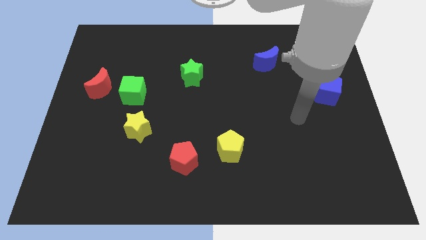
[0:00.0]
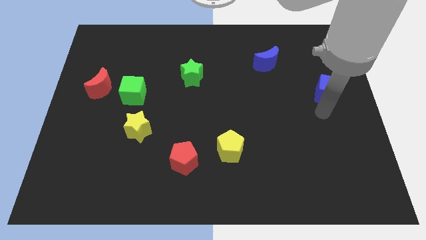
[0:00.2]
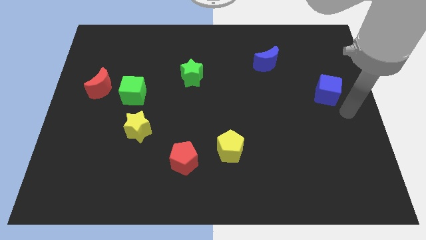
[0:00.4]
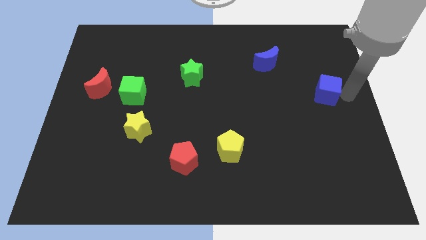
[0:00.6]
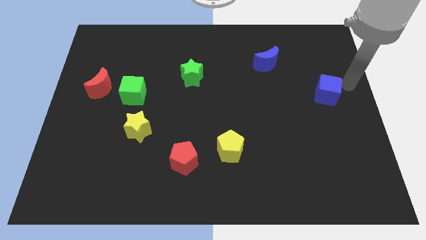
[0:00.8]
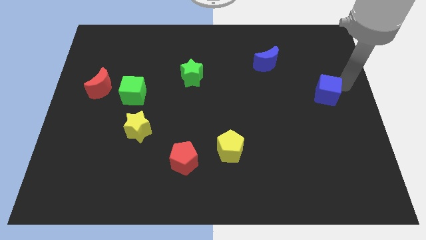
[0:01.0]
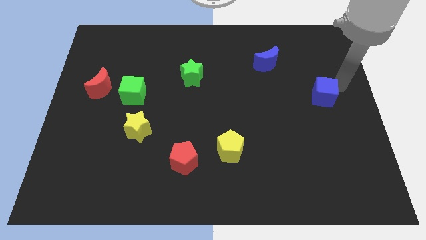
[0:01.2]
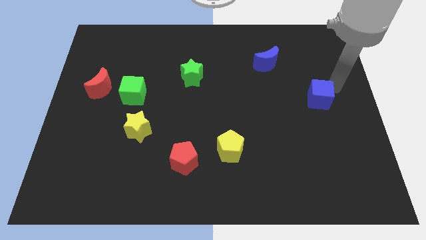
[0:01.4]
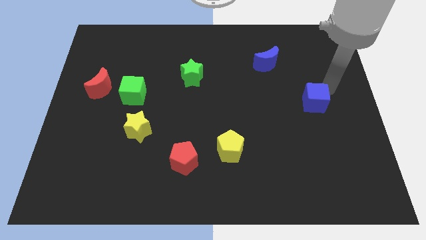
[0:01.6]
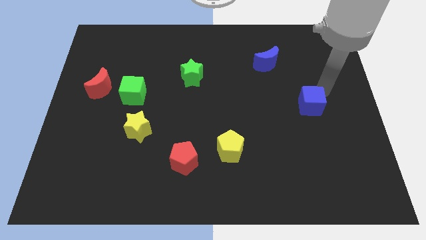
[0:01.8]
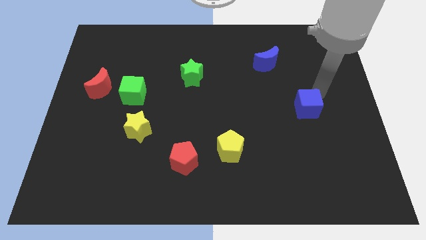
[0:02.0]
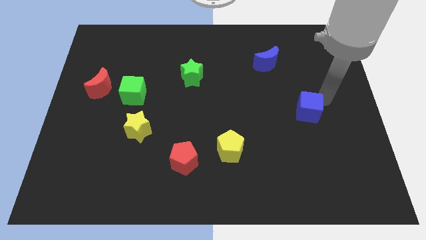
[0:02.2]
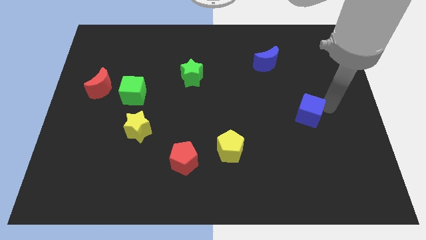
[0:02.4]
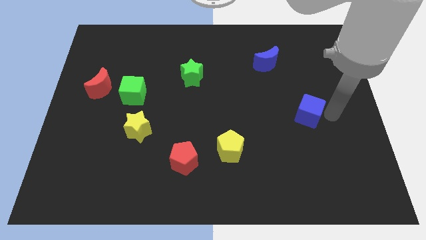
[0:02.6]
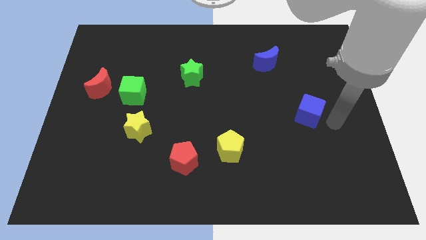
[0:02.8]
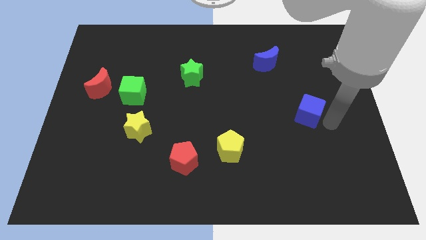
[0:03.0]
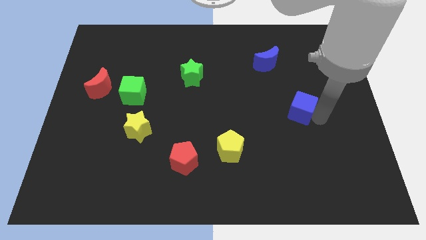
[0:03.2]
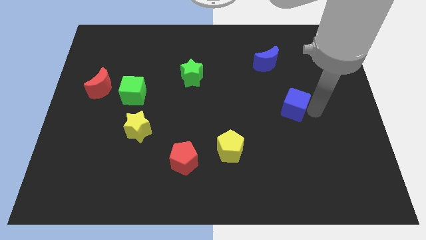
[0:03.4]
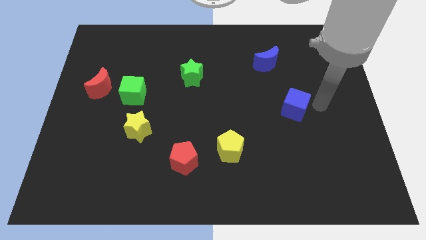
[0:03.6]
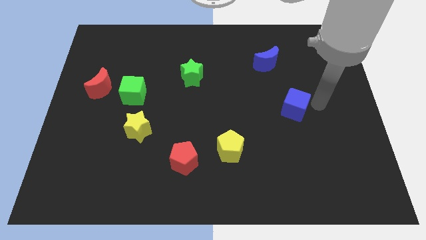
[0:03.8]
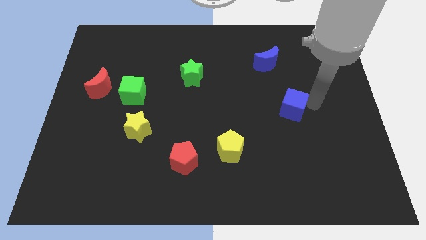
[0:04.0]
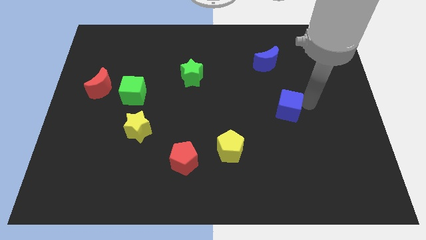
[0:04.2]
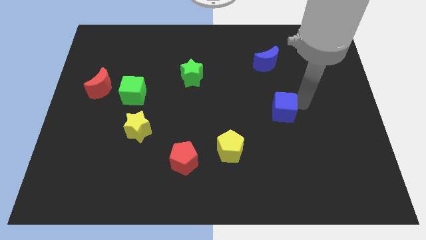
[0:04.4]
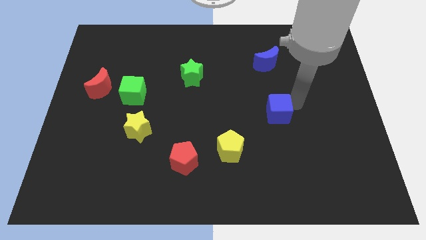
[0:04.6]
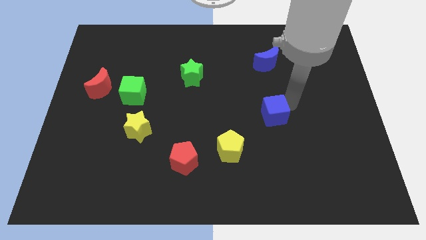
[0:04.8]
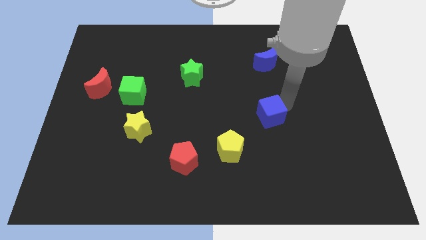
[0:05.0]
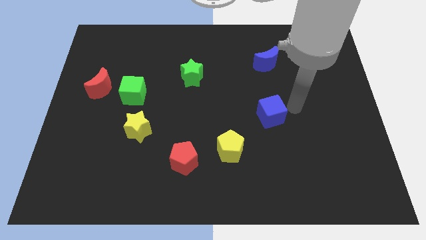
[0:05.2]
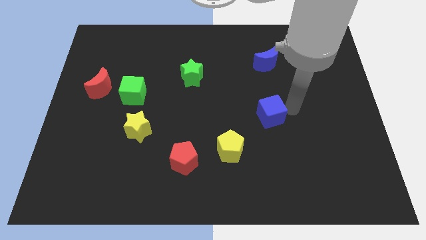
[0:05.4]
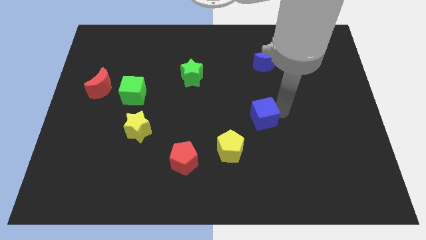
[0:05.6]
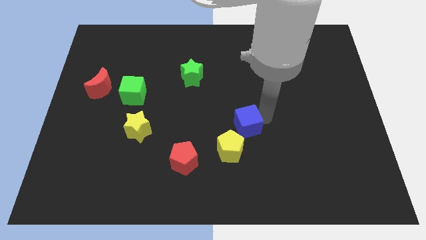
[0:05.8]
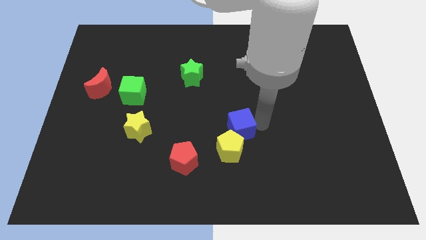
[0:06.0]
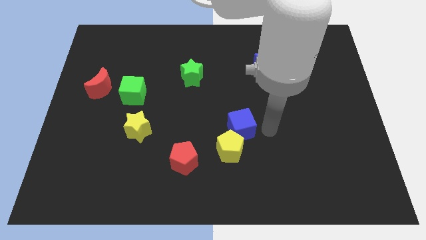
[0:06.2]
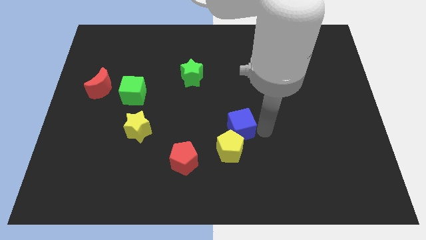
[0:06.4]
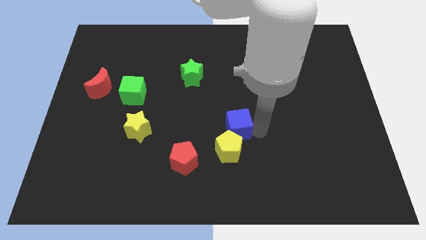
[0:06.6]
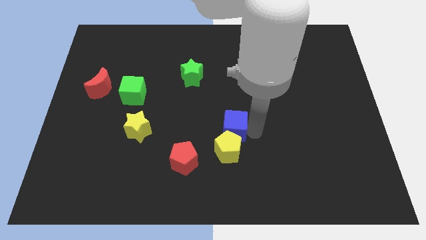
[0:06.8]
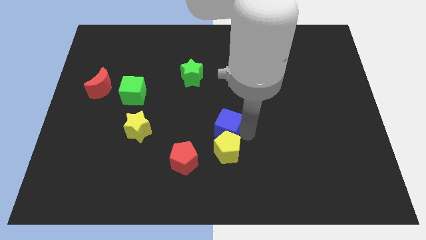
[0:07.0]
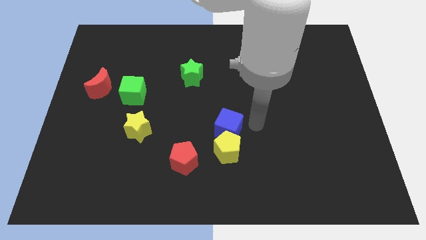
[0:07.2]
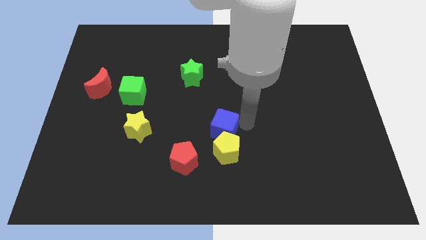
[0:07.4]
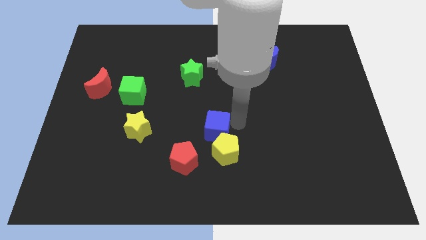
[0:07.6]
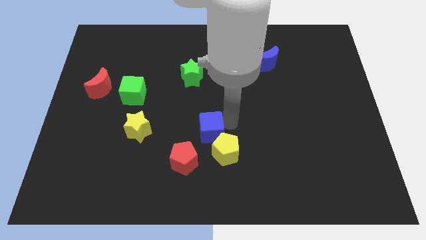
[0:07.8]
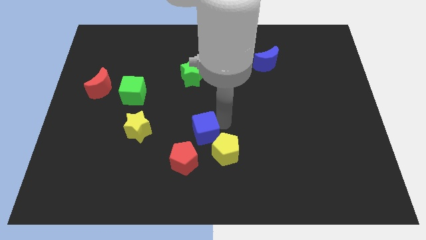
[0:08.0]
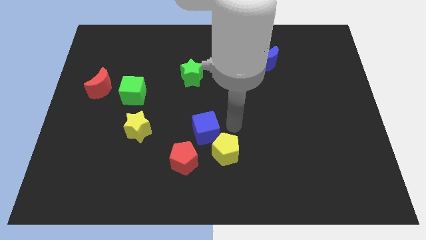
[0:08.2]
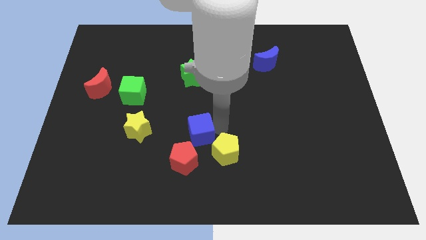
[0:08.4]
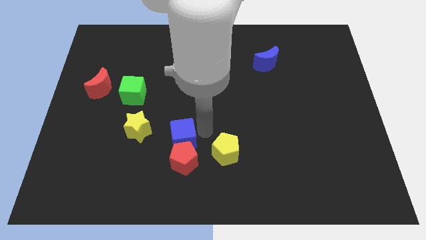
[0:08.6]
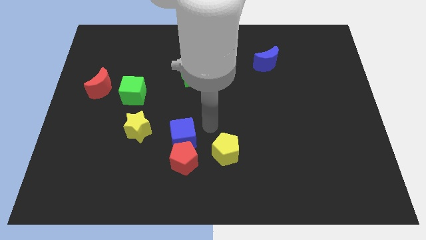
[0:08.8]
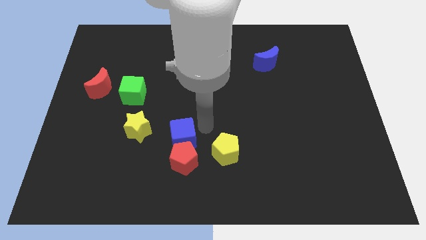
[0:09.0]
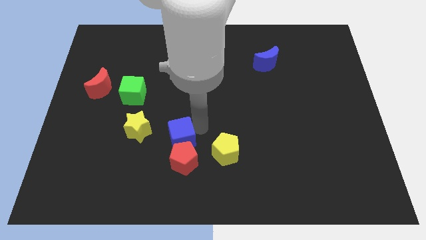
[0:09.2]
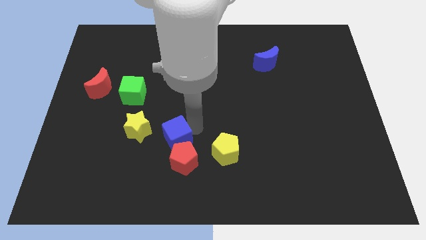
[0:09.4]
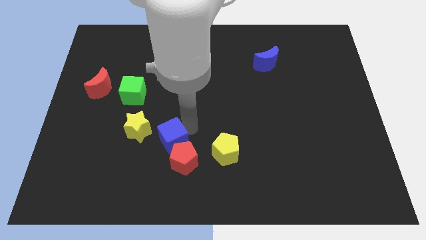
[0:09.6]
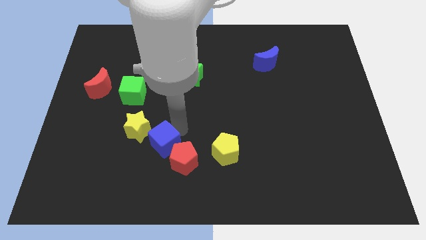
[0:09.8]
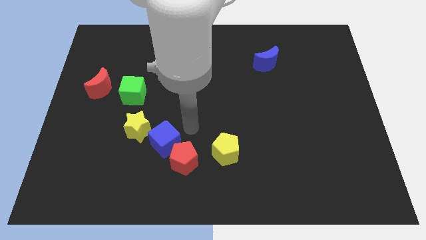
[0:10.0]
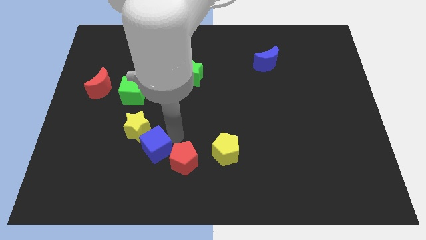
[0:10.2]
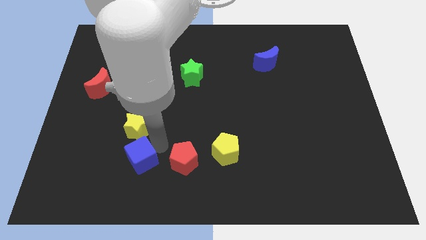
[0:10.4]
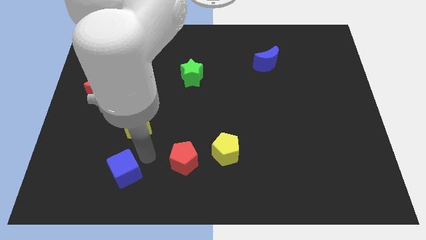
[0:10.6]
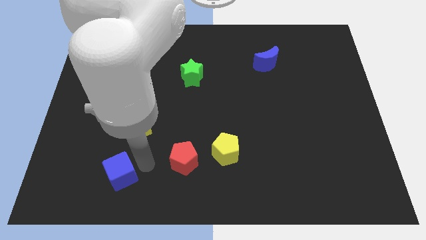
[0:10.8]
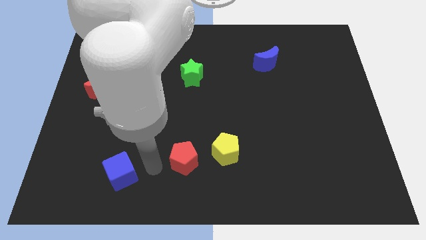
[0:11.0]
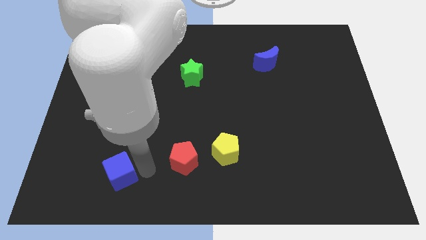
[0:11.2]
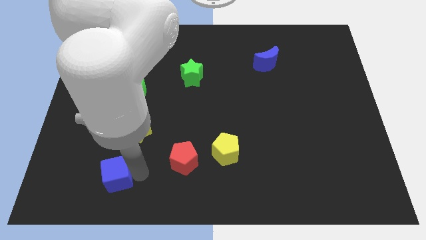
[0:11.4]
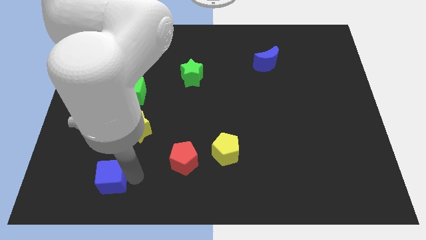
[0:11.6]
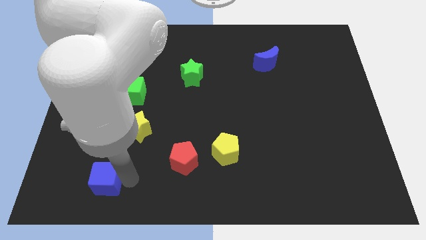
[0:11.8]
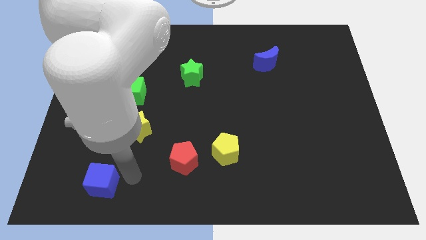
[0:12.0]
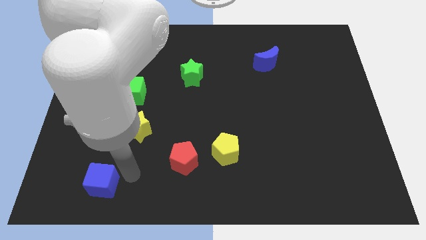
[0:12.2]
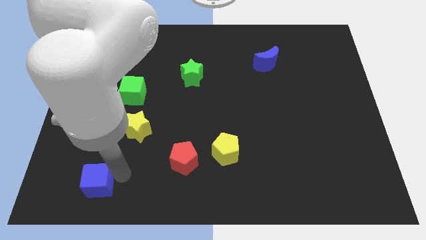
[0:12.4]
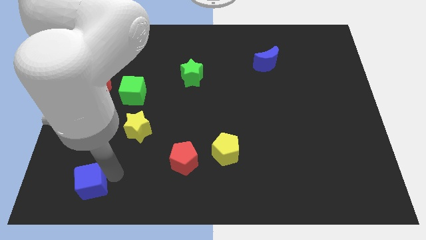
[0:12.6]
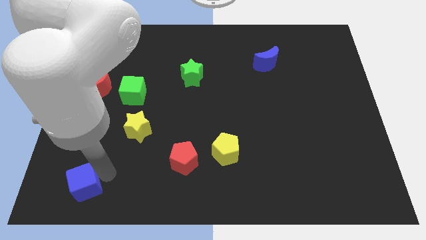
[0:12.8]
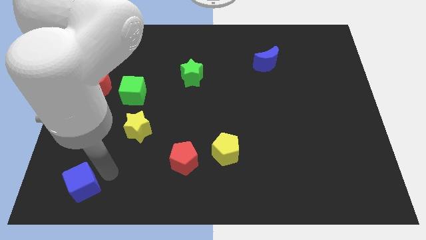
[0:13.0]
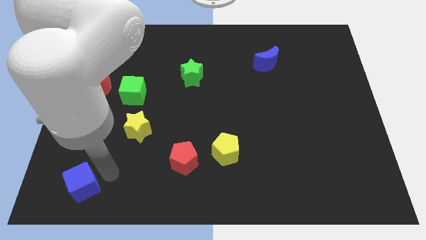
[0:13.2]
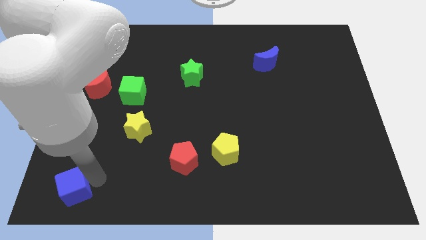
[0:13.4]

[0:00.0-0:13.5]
push the blue cube to the lower left corner
